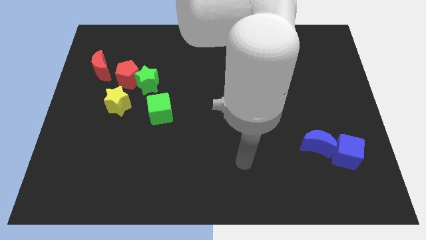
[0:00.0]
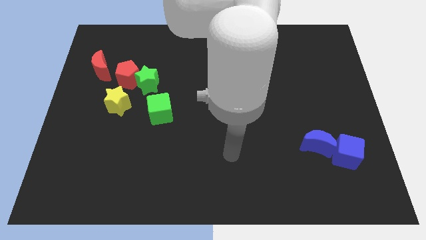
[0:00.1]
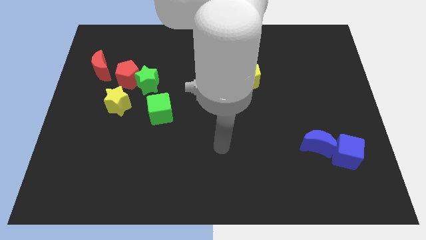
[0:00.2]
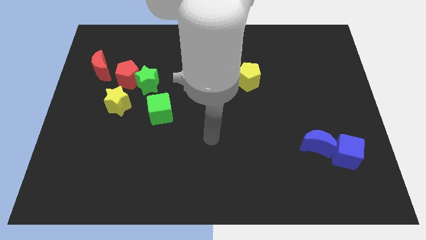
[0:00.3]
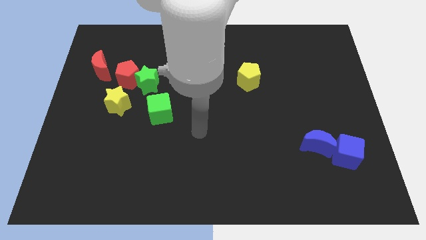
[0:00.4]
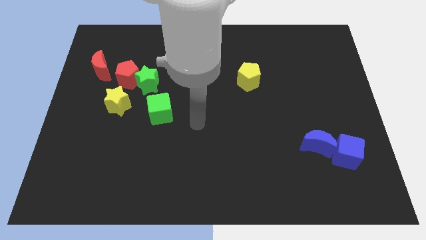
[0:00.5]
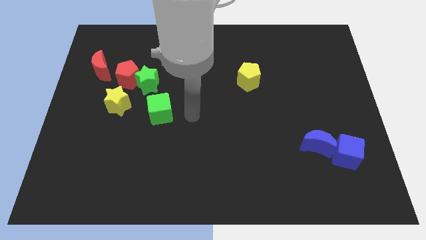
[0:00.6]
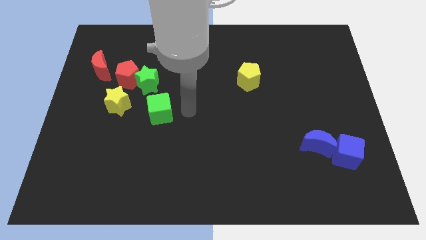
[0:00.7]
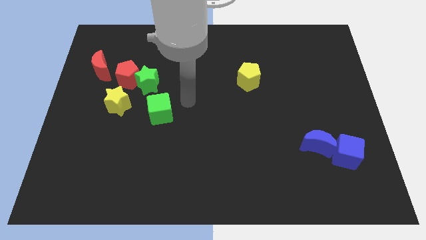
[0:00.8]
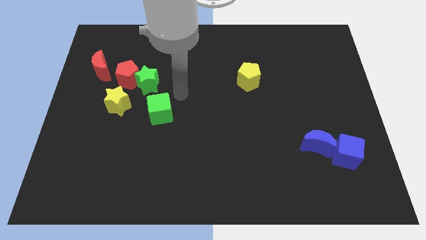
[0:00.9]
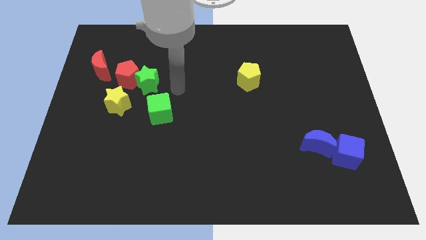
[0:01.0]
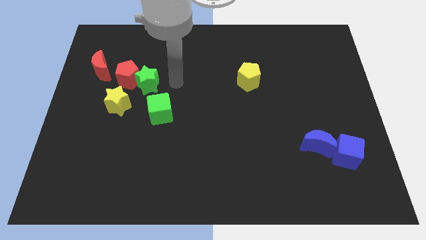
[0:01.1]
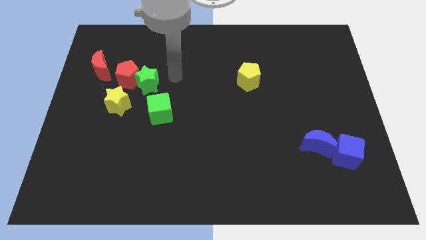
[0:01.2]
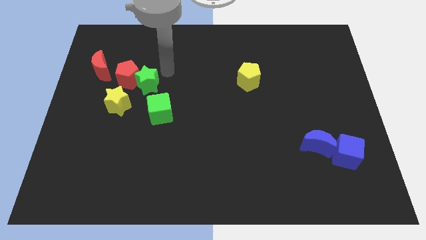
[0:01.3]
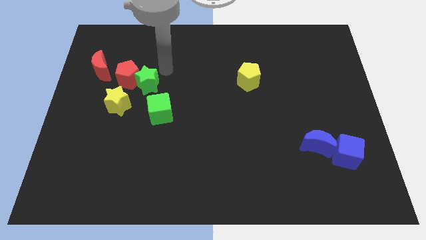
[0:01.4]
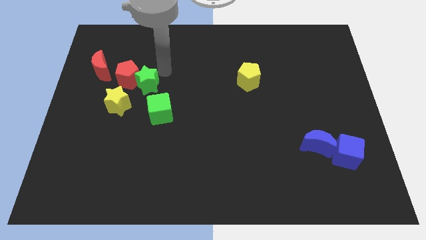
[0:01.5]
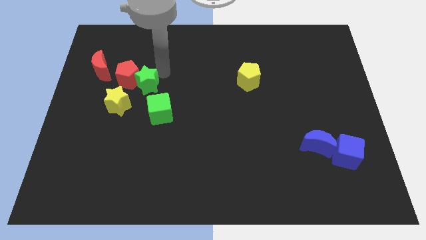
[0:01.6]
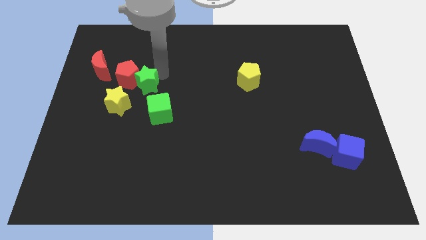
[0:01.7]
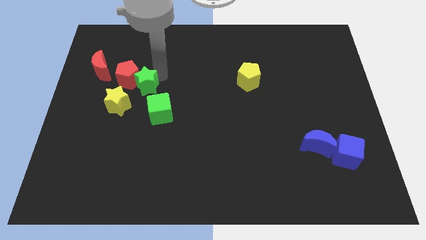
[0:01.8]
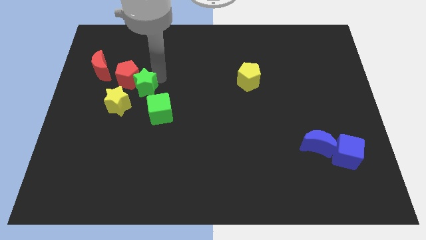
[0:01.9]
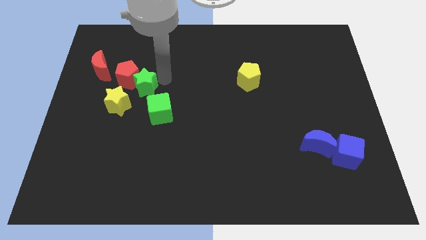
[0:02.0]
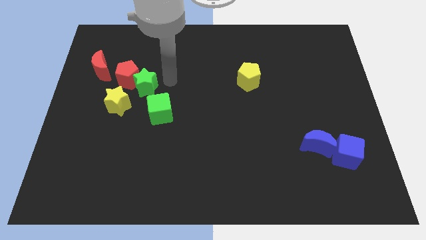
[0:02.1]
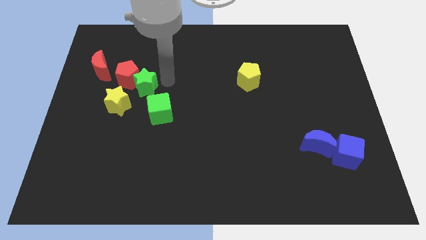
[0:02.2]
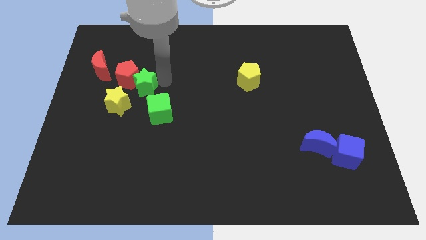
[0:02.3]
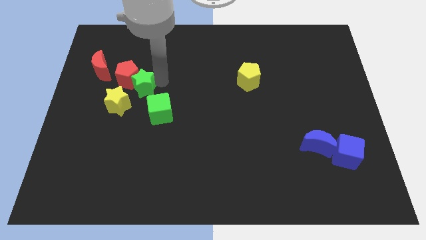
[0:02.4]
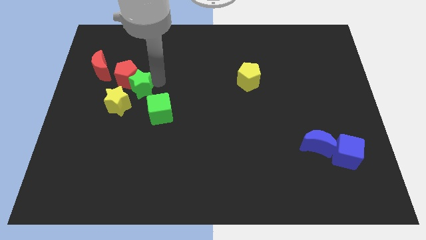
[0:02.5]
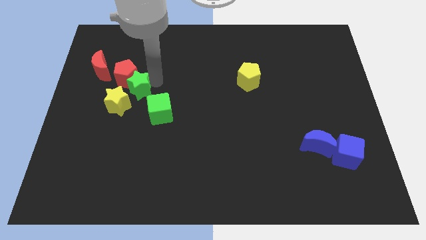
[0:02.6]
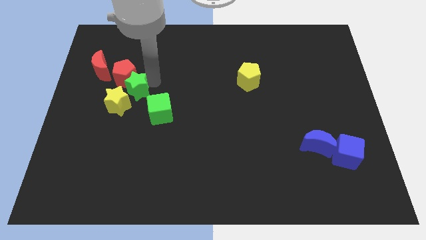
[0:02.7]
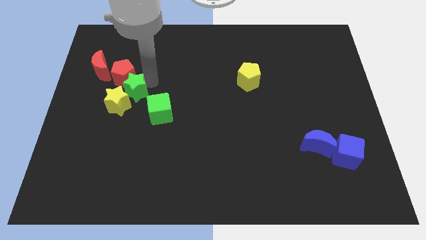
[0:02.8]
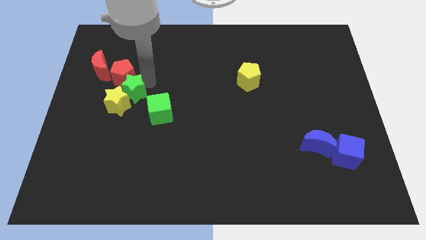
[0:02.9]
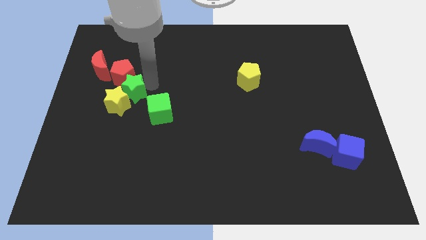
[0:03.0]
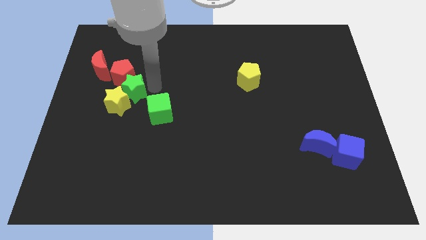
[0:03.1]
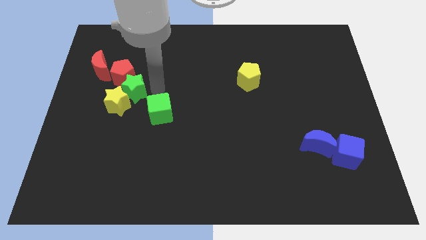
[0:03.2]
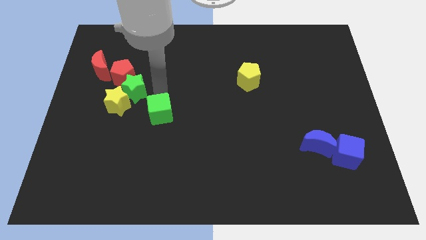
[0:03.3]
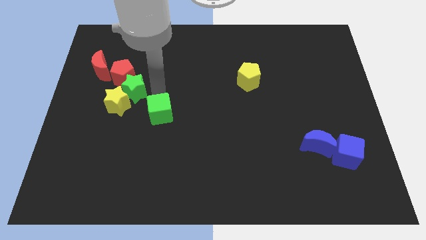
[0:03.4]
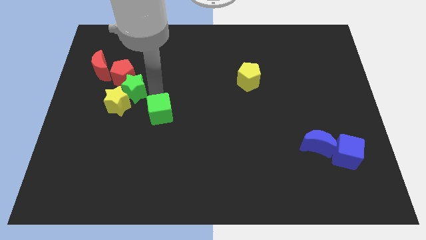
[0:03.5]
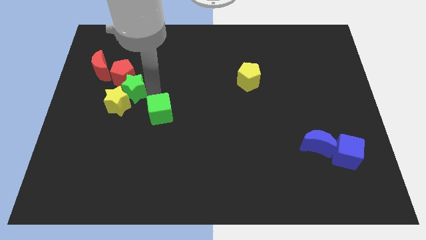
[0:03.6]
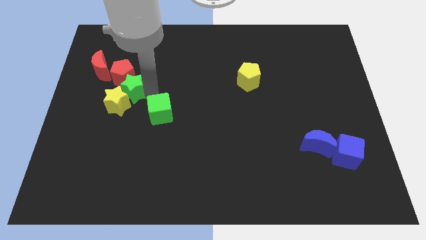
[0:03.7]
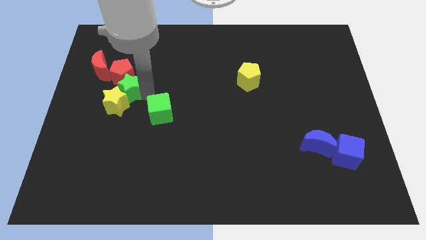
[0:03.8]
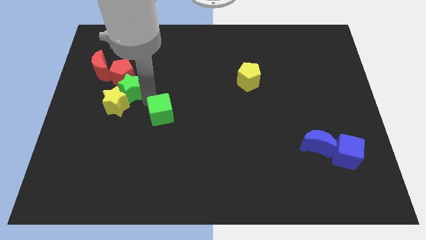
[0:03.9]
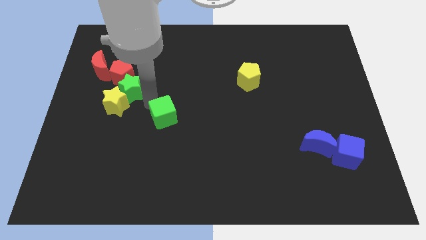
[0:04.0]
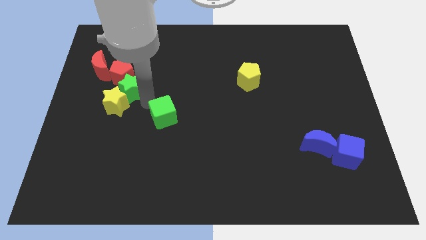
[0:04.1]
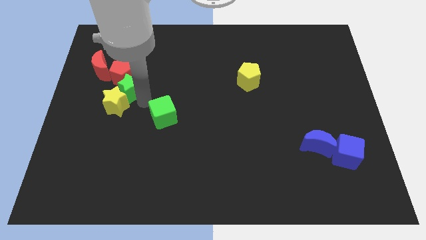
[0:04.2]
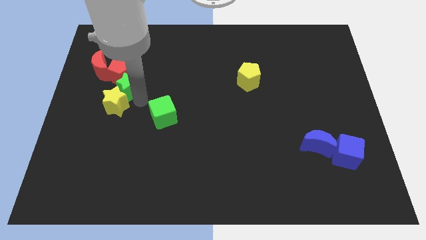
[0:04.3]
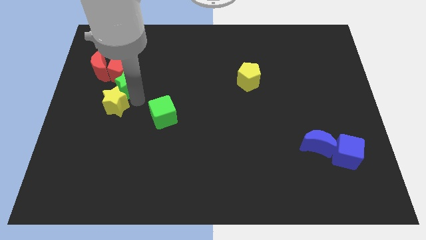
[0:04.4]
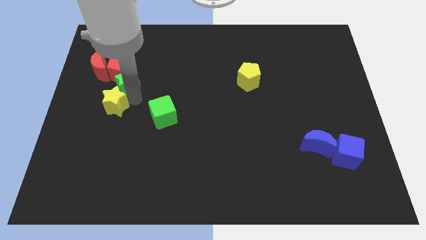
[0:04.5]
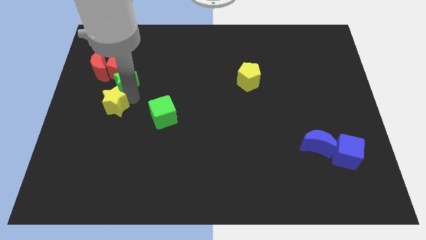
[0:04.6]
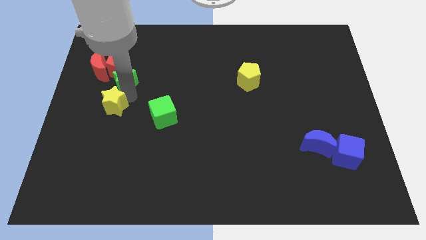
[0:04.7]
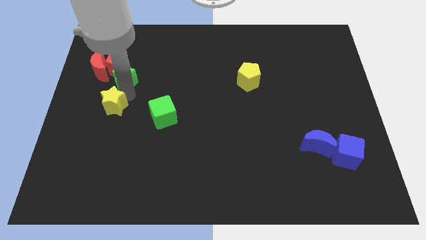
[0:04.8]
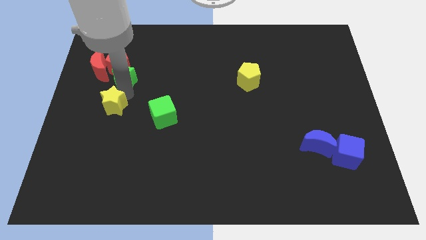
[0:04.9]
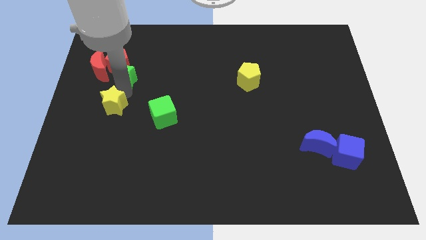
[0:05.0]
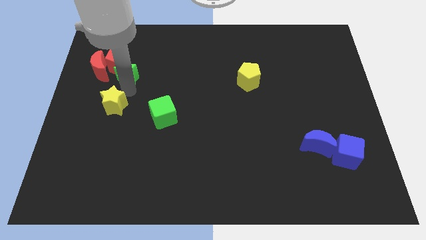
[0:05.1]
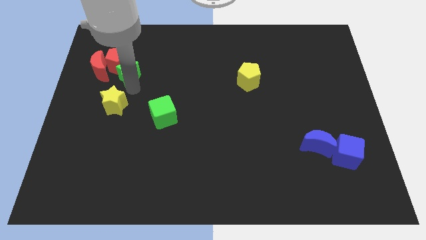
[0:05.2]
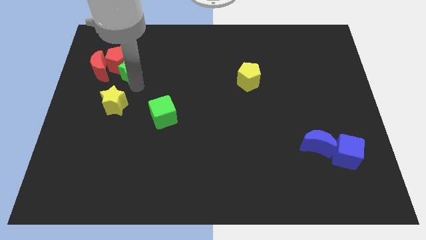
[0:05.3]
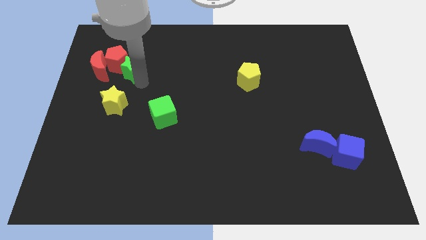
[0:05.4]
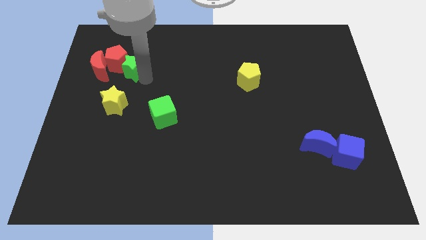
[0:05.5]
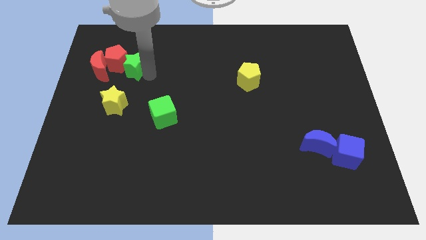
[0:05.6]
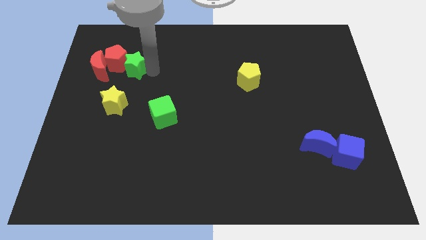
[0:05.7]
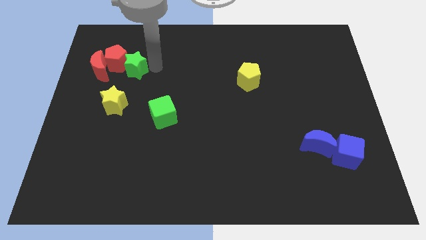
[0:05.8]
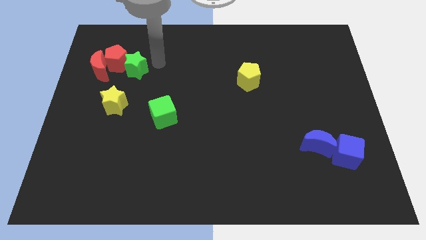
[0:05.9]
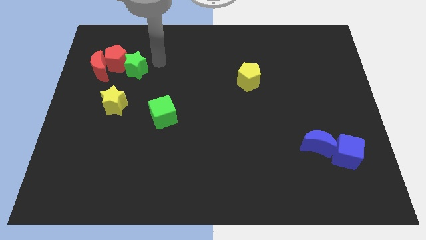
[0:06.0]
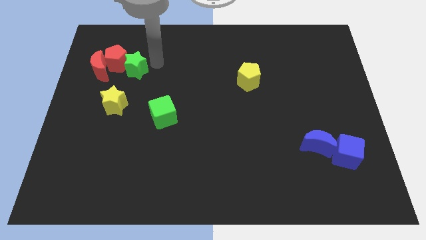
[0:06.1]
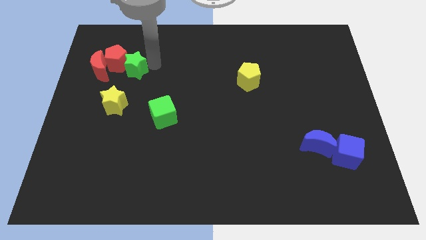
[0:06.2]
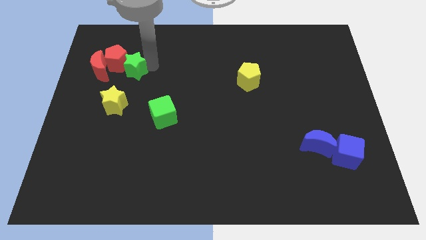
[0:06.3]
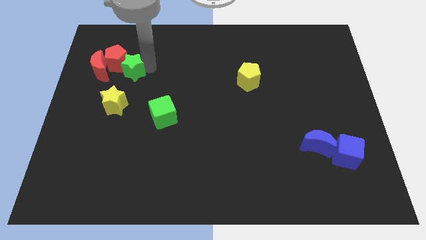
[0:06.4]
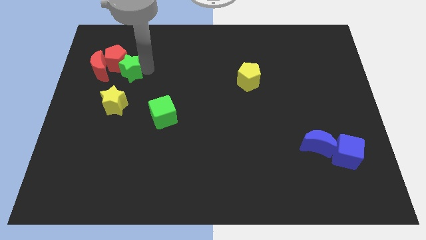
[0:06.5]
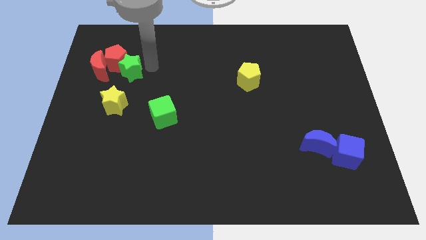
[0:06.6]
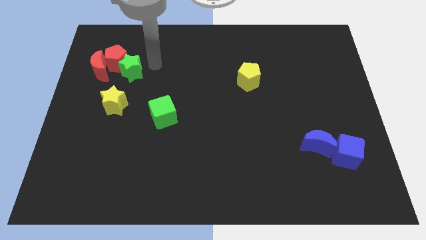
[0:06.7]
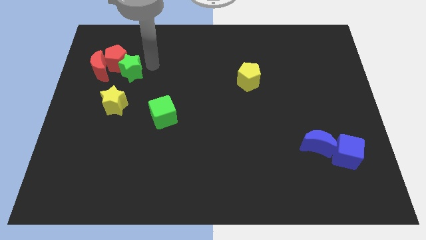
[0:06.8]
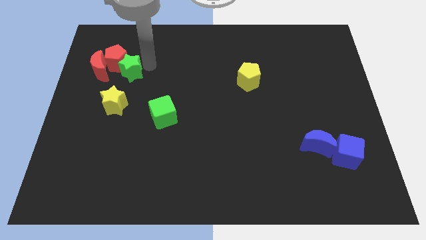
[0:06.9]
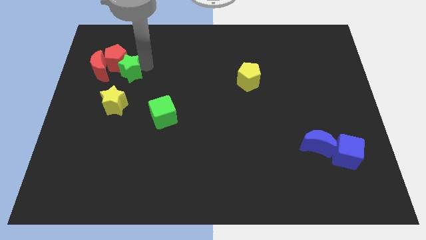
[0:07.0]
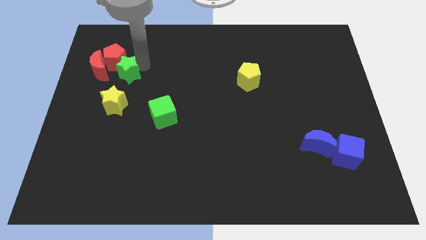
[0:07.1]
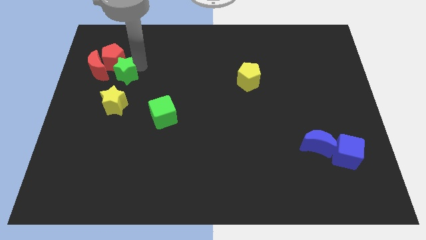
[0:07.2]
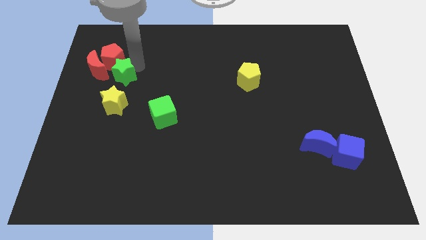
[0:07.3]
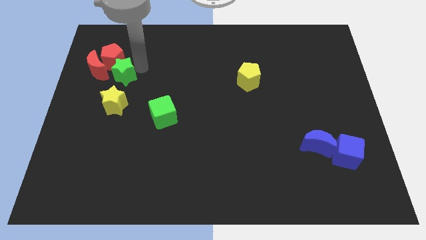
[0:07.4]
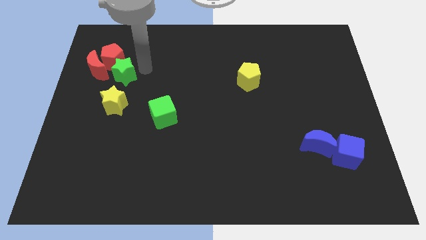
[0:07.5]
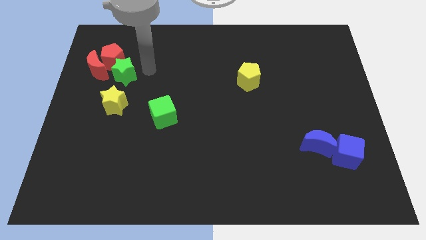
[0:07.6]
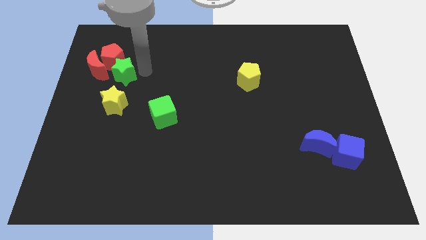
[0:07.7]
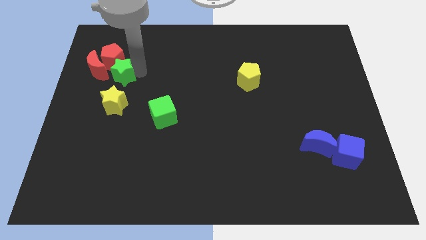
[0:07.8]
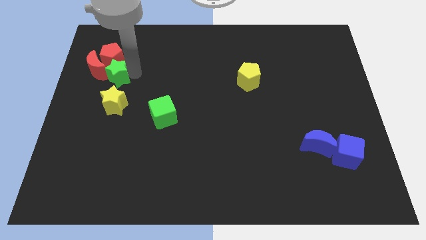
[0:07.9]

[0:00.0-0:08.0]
move the green star to the red moon
